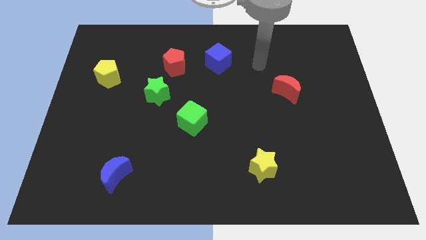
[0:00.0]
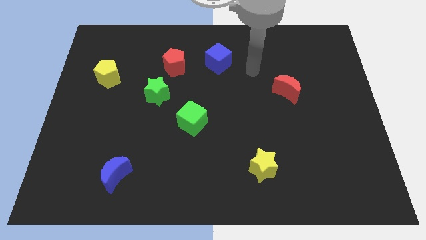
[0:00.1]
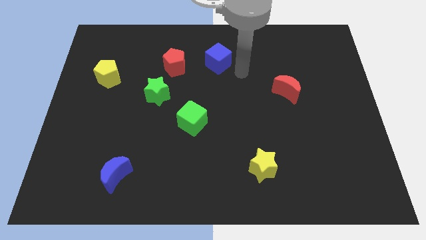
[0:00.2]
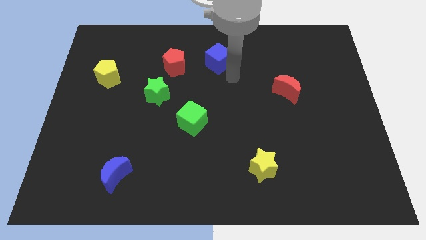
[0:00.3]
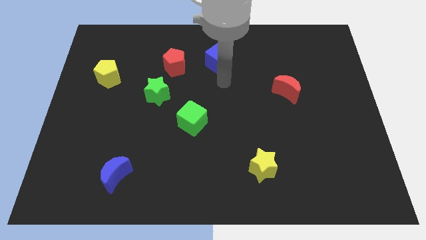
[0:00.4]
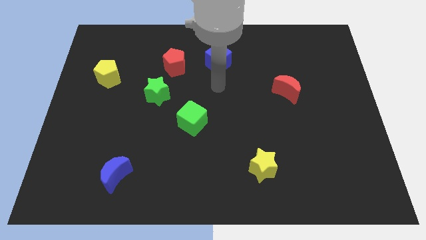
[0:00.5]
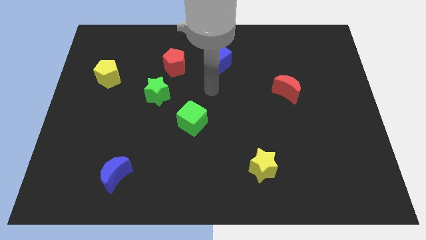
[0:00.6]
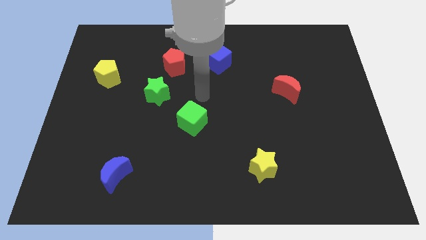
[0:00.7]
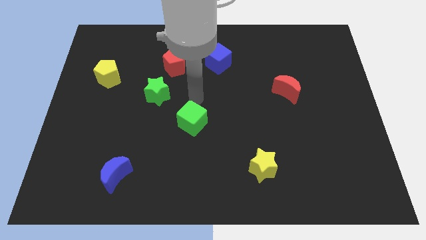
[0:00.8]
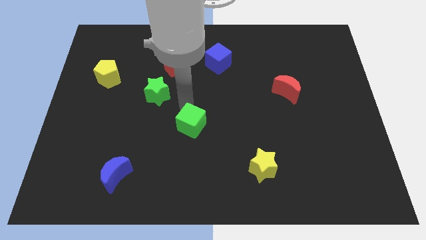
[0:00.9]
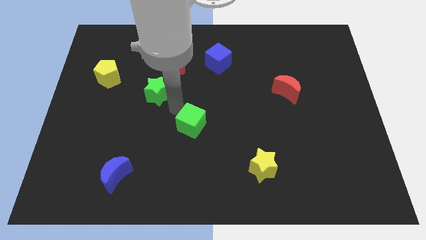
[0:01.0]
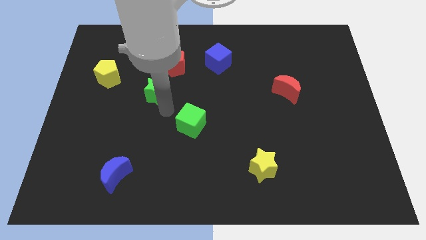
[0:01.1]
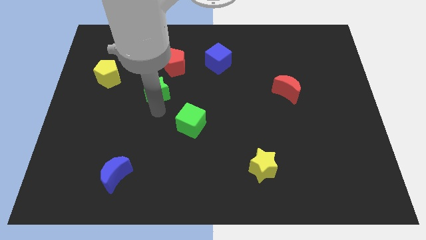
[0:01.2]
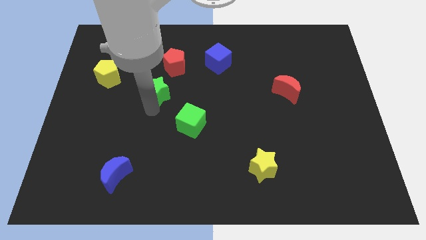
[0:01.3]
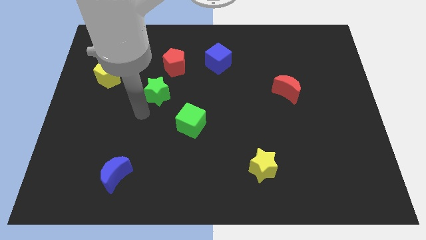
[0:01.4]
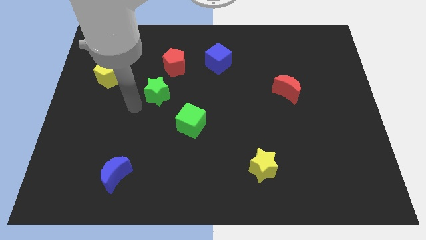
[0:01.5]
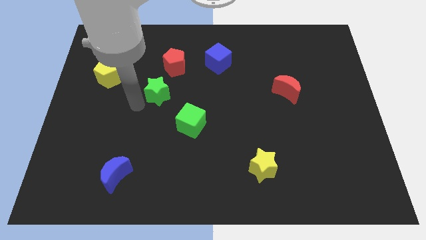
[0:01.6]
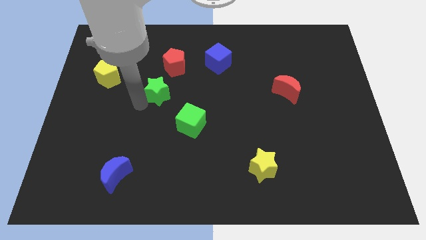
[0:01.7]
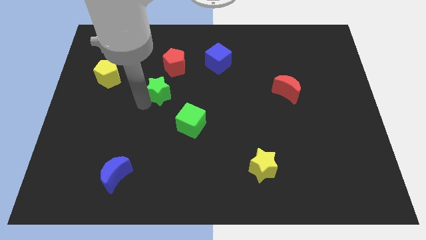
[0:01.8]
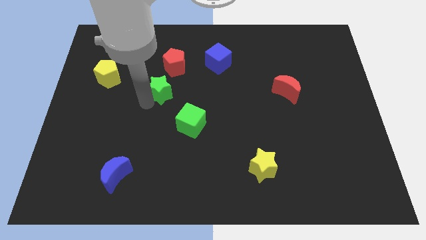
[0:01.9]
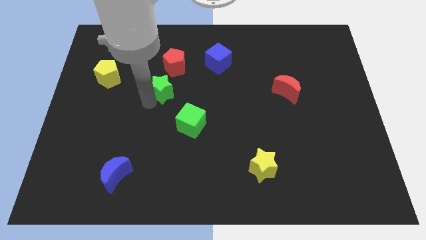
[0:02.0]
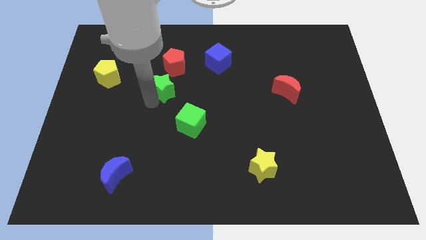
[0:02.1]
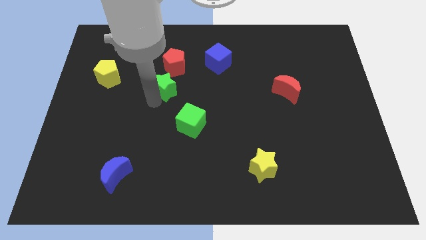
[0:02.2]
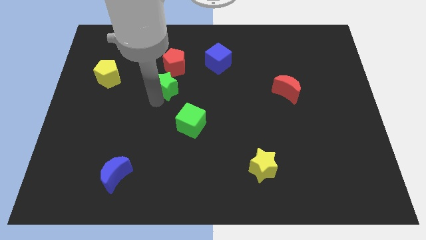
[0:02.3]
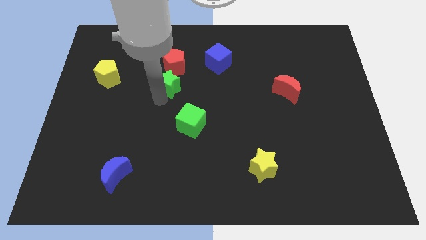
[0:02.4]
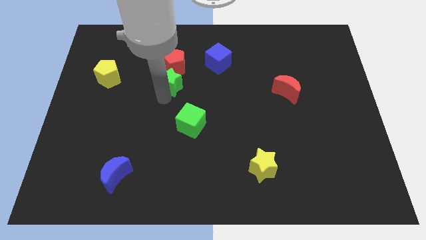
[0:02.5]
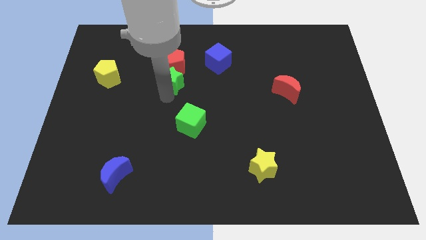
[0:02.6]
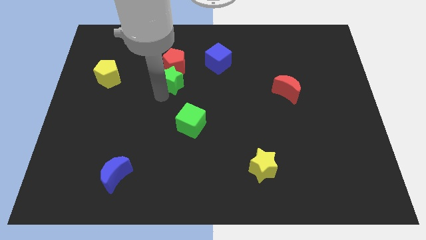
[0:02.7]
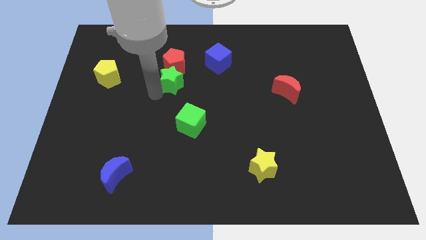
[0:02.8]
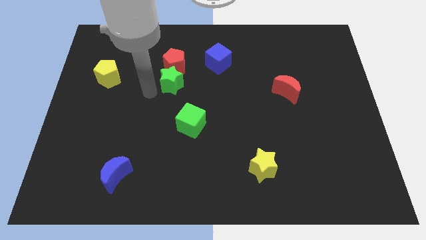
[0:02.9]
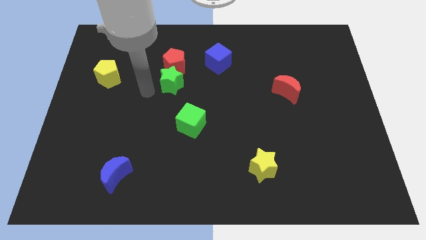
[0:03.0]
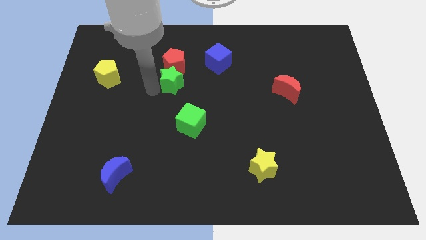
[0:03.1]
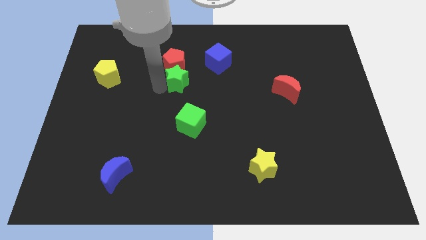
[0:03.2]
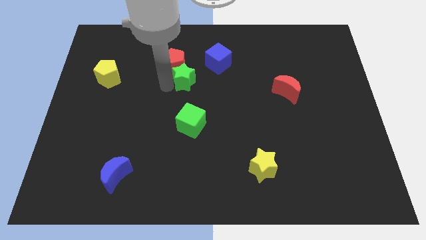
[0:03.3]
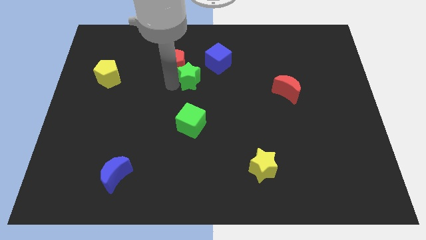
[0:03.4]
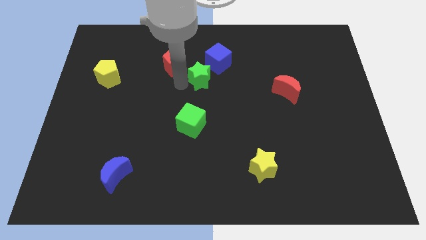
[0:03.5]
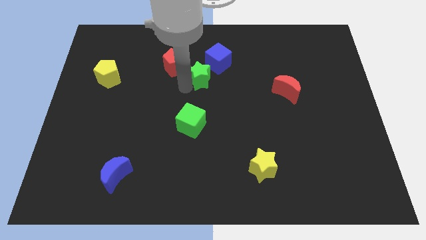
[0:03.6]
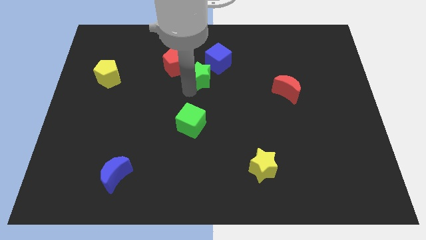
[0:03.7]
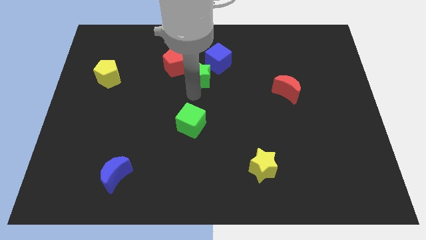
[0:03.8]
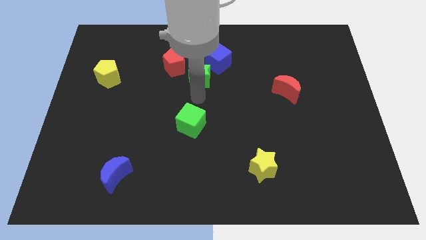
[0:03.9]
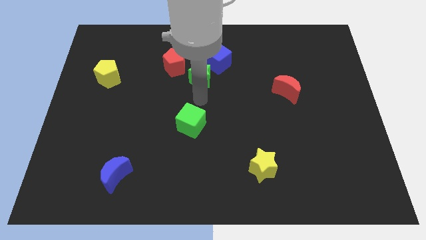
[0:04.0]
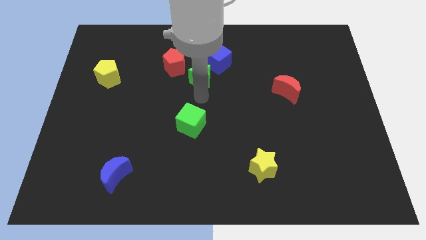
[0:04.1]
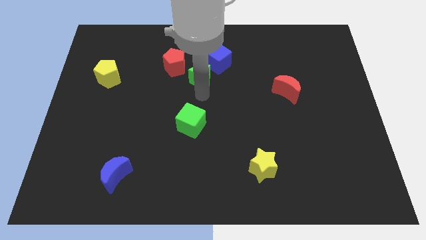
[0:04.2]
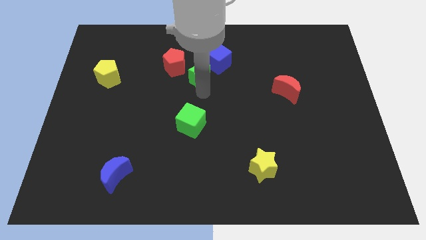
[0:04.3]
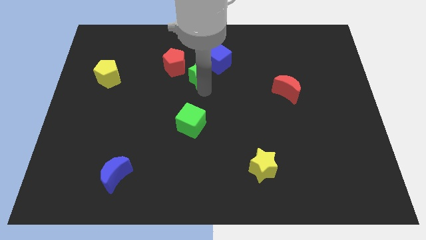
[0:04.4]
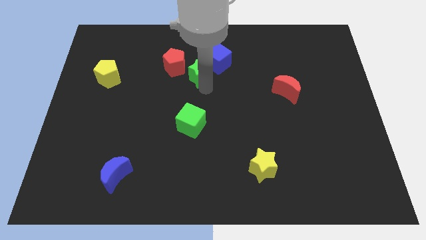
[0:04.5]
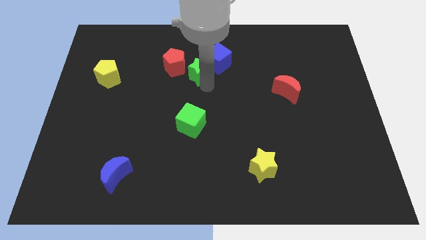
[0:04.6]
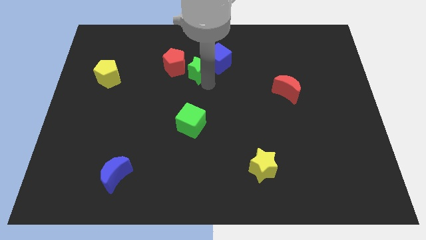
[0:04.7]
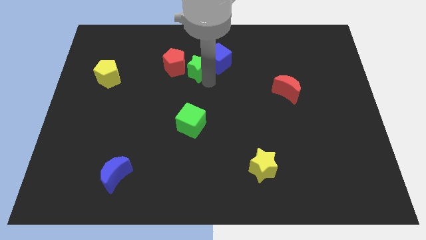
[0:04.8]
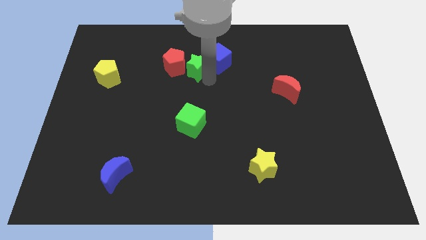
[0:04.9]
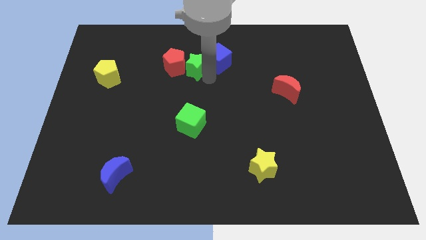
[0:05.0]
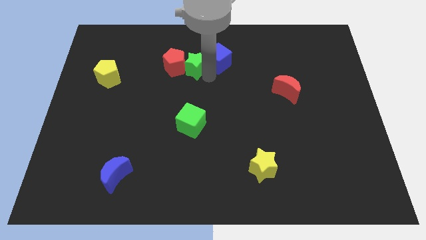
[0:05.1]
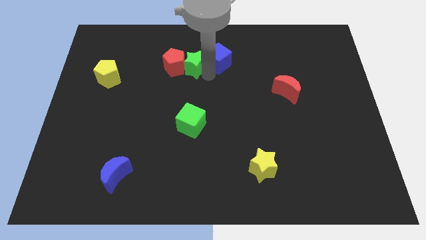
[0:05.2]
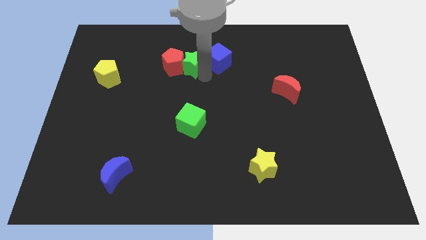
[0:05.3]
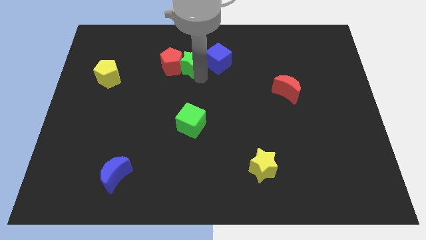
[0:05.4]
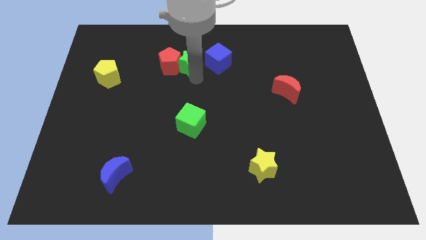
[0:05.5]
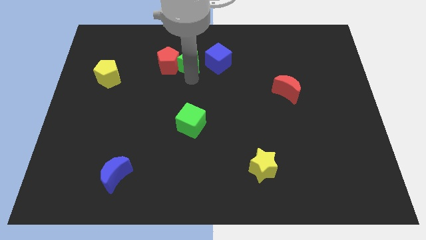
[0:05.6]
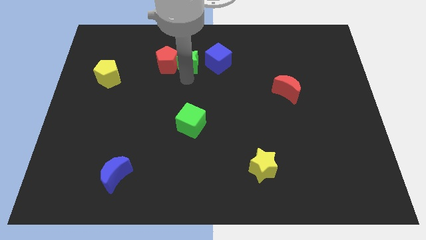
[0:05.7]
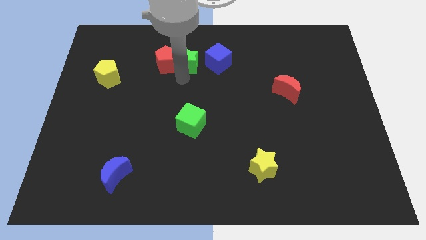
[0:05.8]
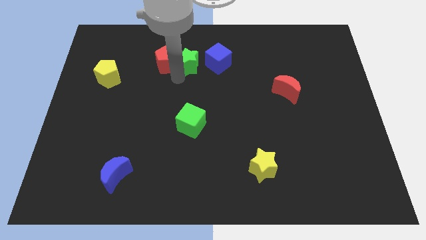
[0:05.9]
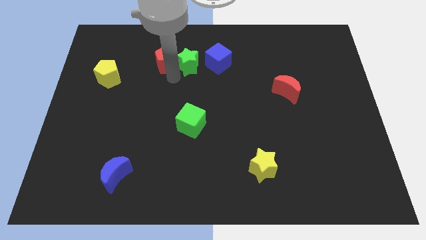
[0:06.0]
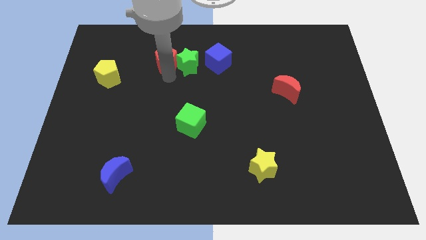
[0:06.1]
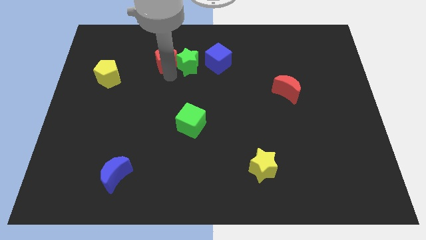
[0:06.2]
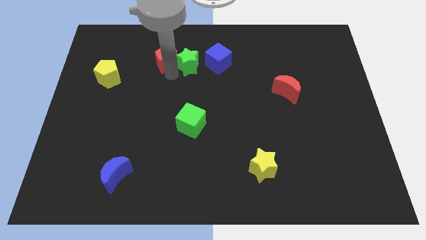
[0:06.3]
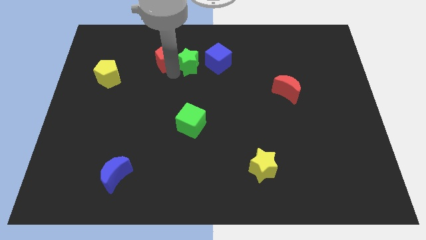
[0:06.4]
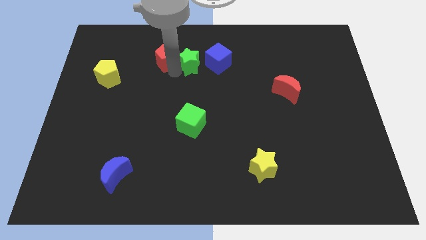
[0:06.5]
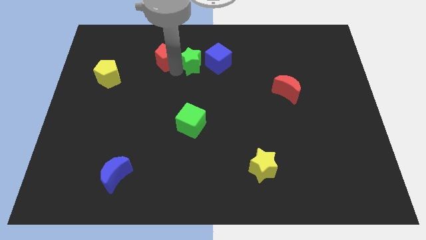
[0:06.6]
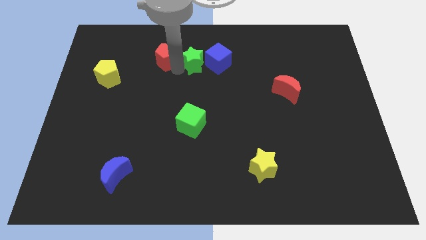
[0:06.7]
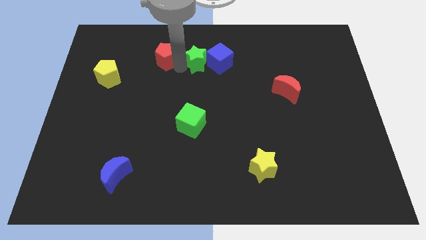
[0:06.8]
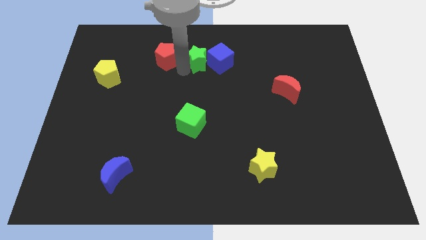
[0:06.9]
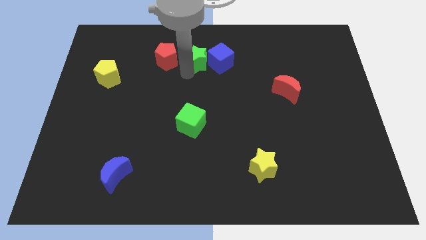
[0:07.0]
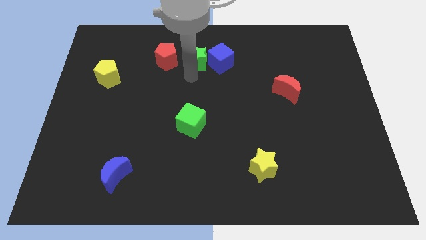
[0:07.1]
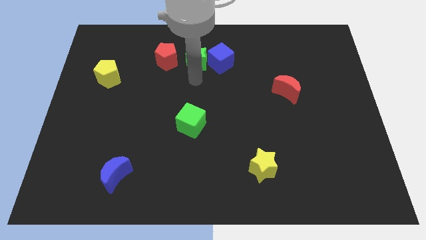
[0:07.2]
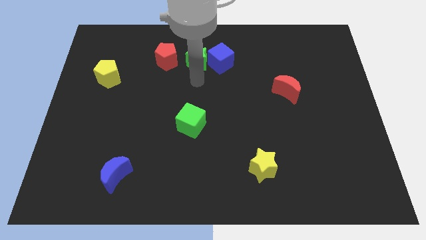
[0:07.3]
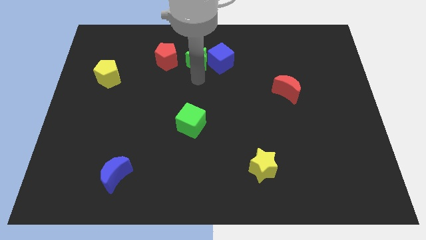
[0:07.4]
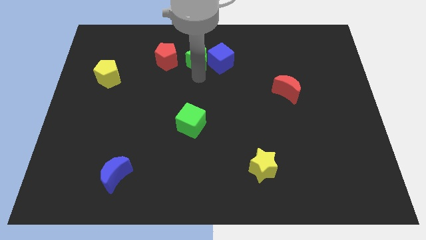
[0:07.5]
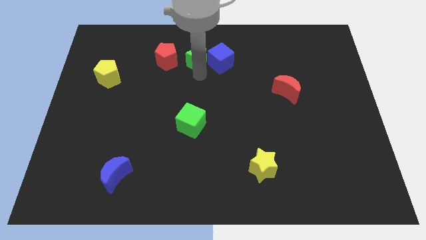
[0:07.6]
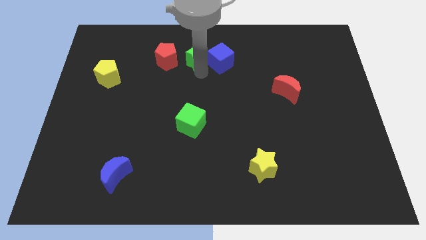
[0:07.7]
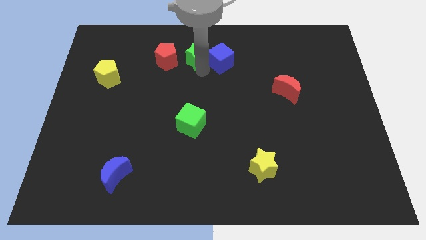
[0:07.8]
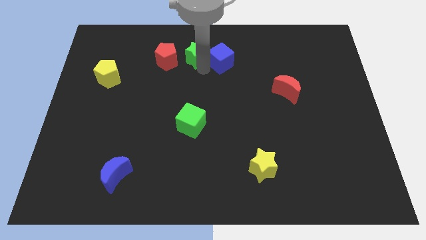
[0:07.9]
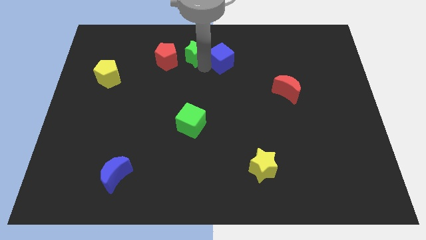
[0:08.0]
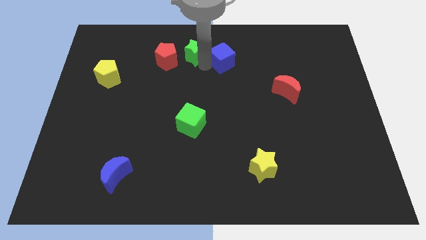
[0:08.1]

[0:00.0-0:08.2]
push the green star to the top
